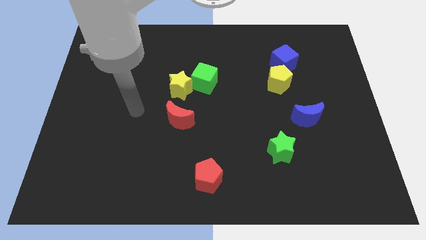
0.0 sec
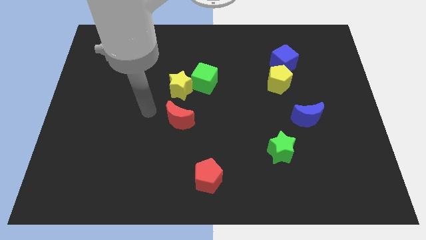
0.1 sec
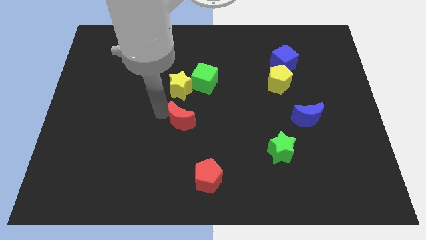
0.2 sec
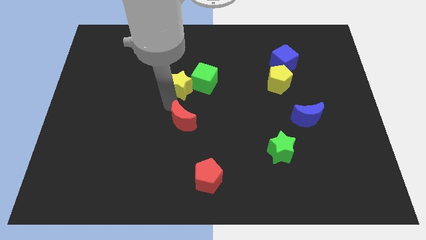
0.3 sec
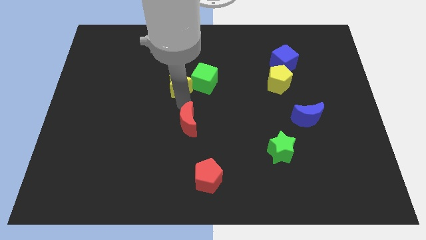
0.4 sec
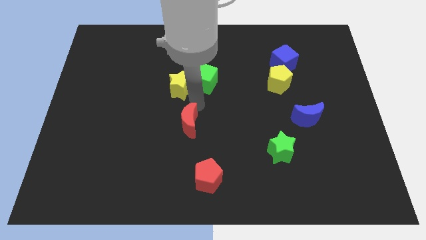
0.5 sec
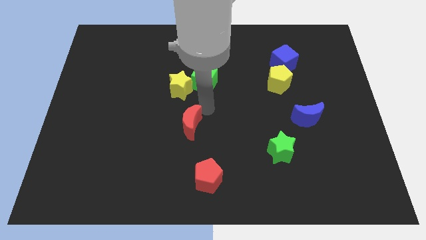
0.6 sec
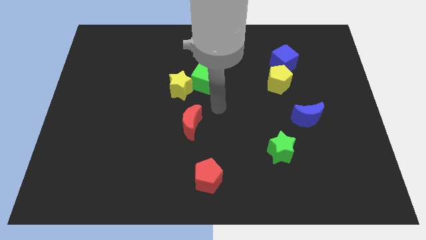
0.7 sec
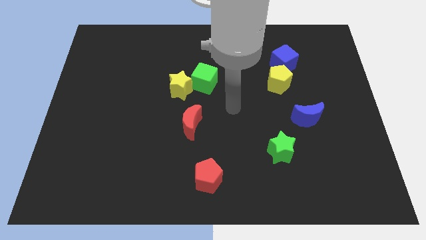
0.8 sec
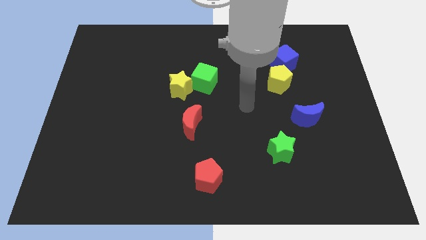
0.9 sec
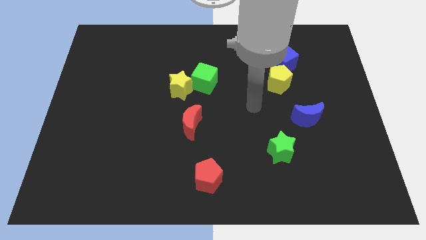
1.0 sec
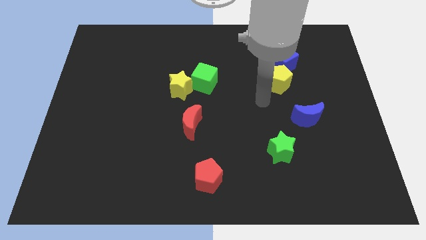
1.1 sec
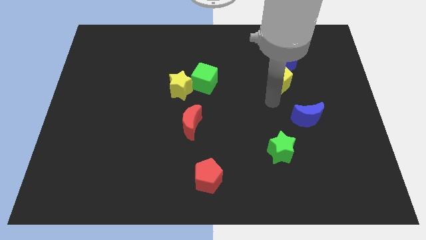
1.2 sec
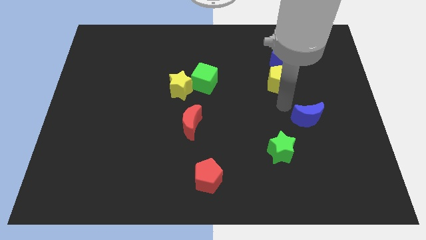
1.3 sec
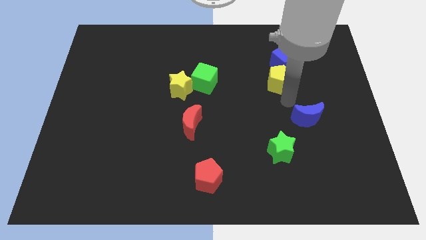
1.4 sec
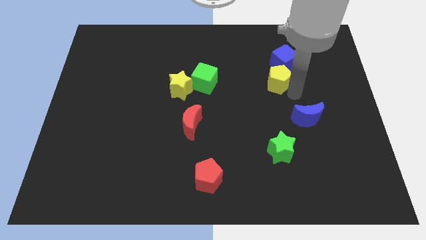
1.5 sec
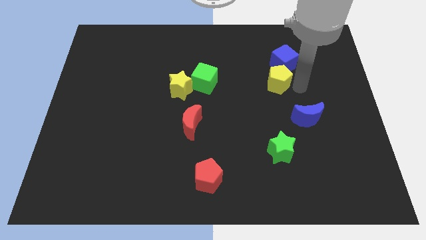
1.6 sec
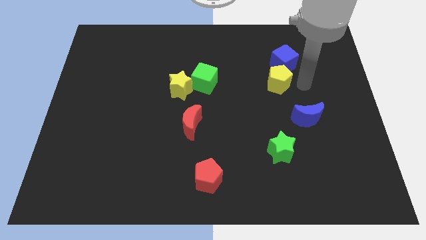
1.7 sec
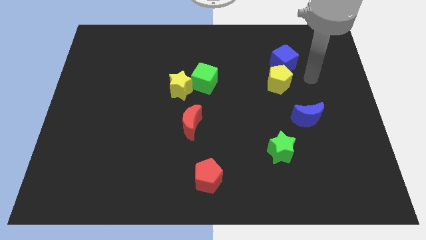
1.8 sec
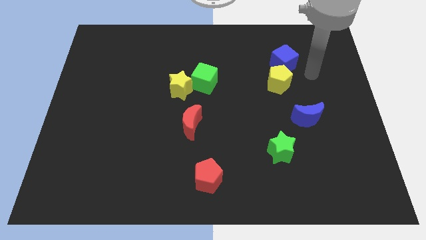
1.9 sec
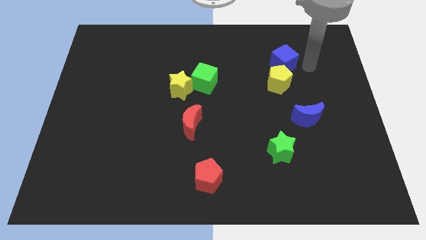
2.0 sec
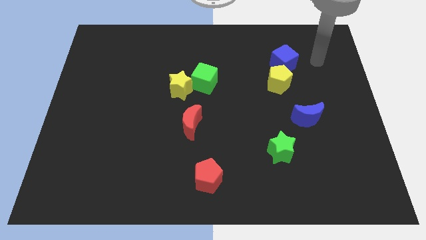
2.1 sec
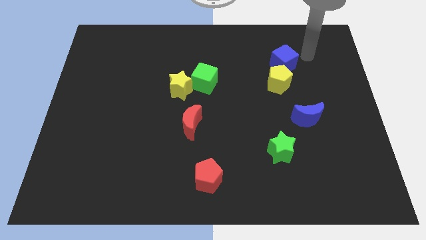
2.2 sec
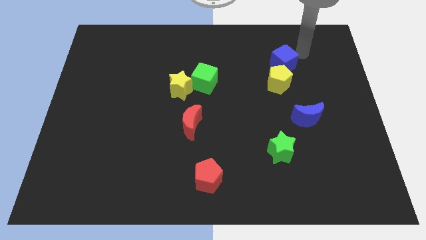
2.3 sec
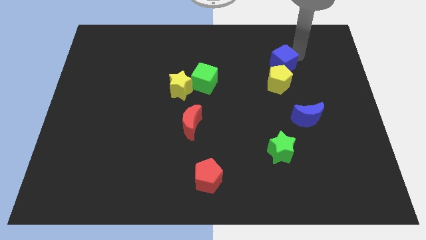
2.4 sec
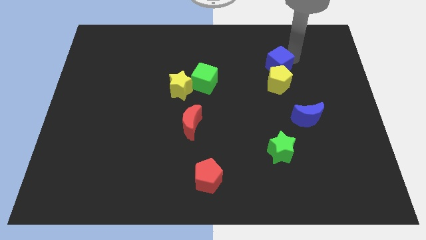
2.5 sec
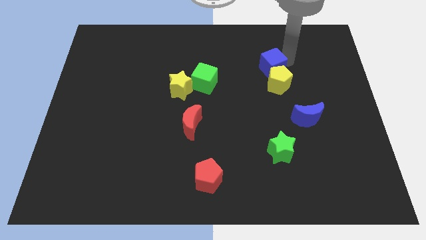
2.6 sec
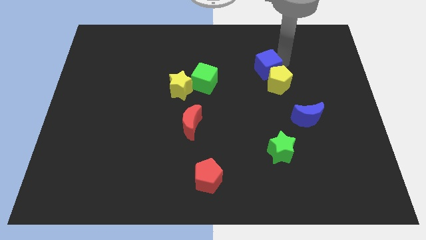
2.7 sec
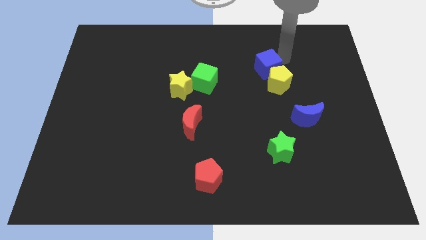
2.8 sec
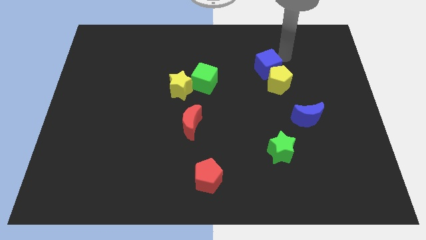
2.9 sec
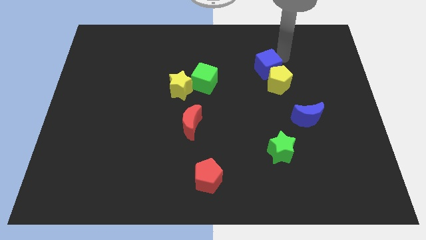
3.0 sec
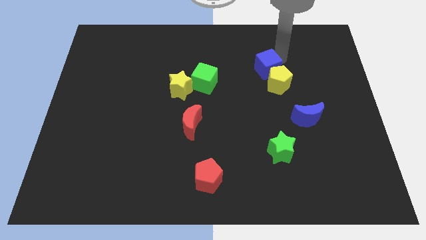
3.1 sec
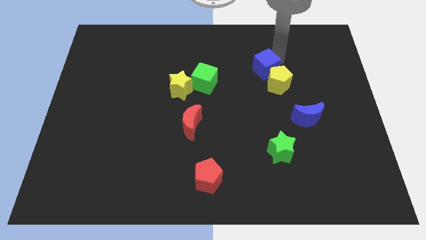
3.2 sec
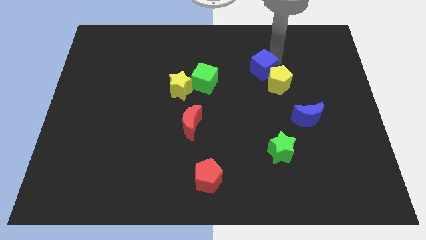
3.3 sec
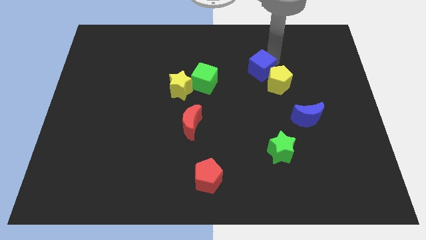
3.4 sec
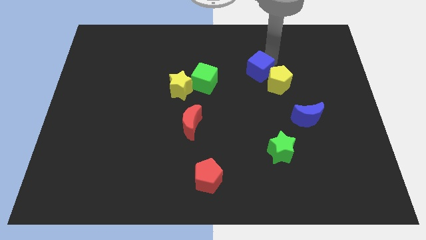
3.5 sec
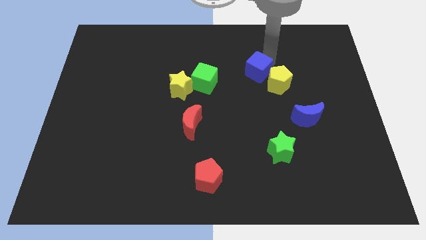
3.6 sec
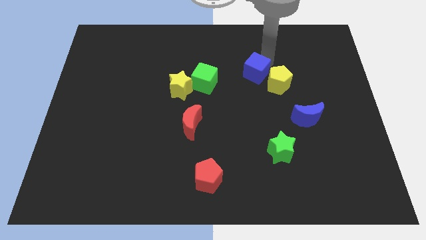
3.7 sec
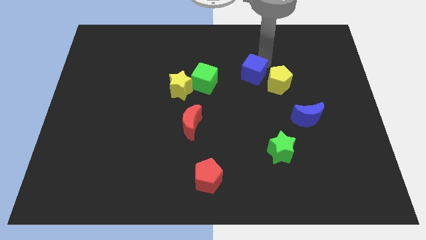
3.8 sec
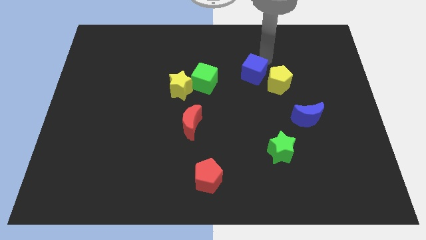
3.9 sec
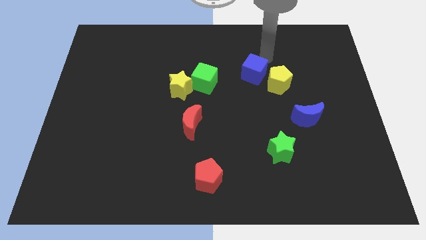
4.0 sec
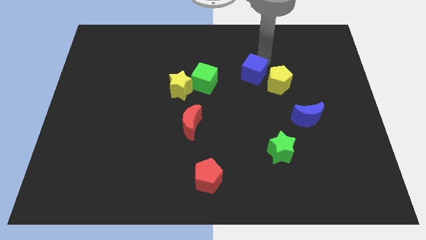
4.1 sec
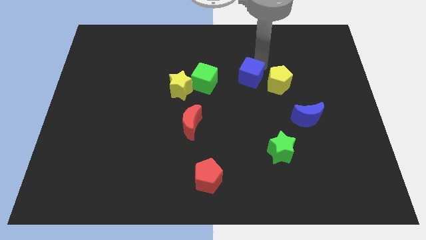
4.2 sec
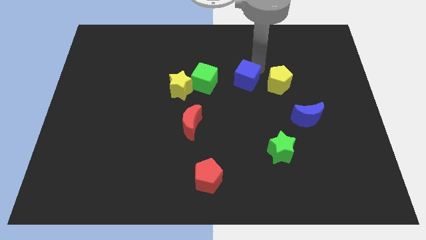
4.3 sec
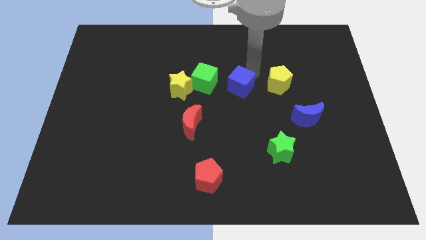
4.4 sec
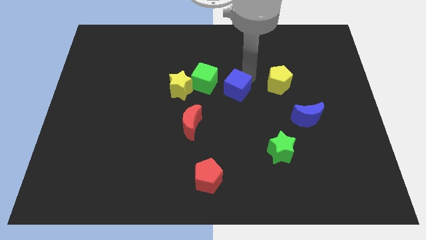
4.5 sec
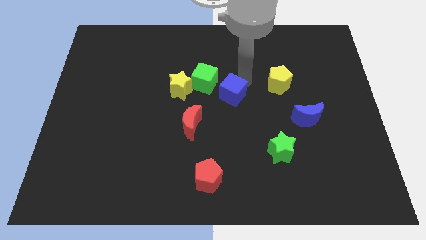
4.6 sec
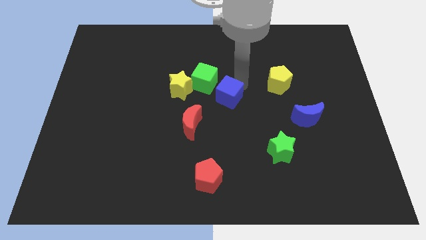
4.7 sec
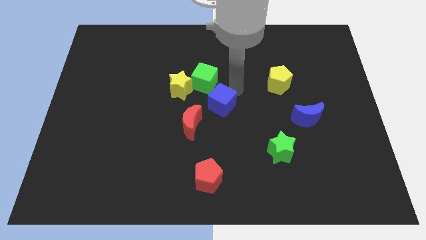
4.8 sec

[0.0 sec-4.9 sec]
push the blue cube down and to the left

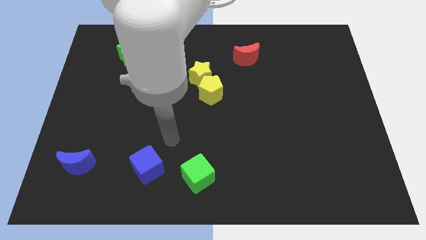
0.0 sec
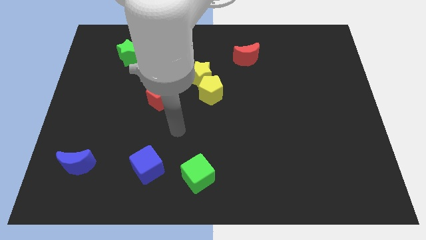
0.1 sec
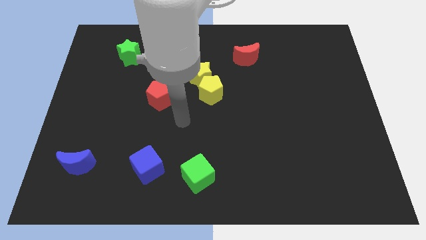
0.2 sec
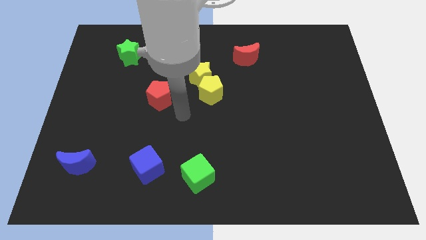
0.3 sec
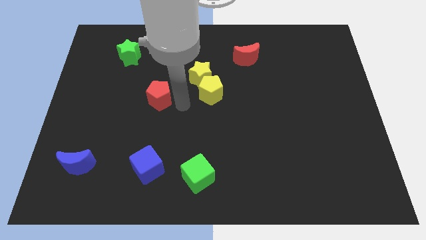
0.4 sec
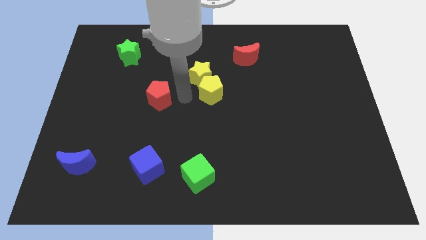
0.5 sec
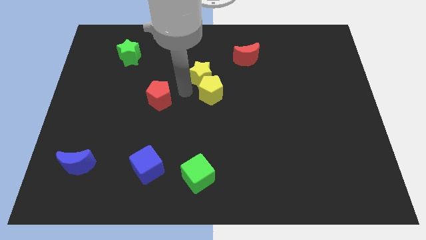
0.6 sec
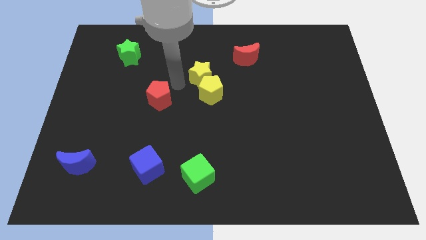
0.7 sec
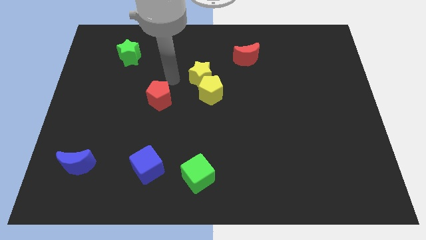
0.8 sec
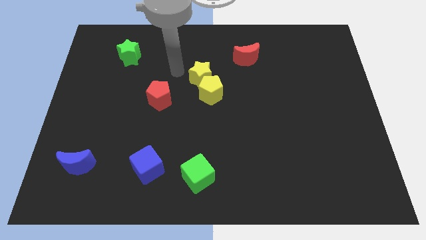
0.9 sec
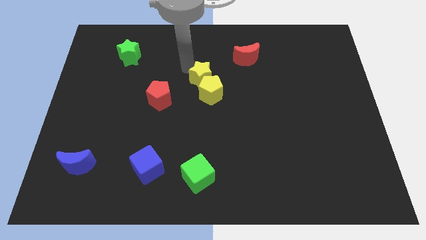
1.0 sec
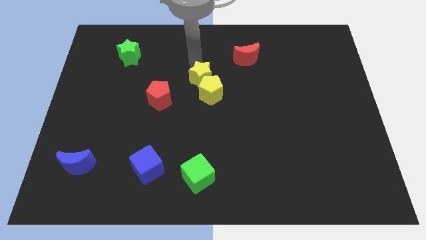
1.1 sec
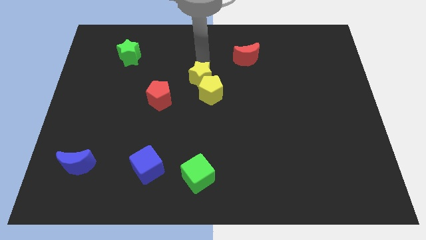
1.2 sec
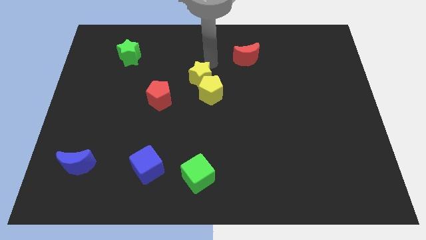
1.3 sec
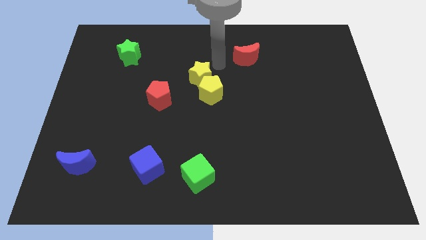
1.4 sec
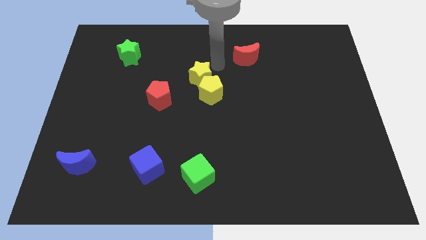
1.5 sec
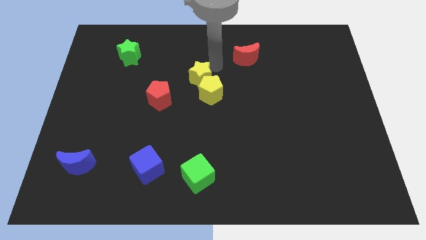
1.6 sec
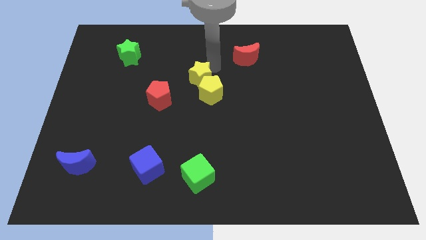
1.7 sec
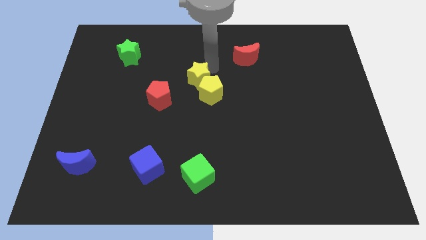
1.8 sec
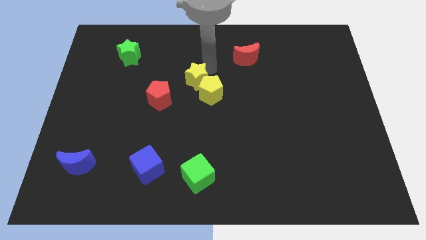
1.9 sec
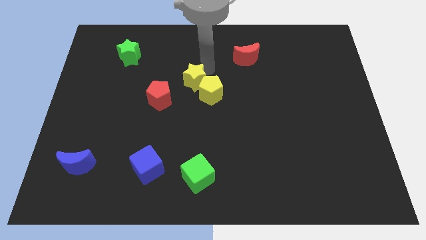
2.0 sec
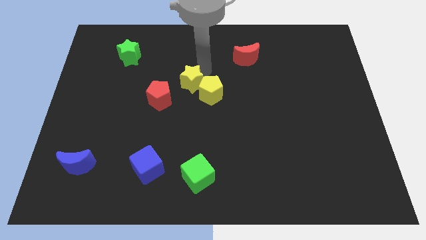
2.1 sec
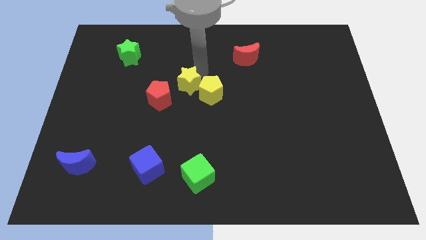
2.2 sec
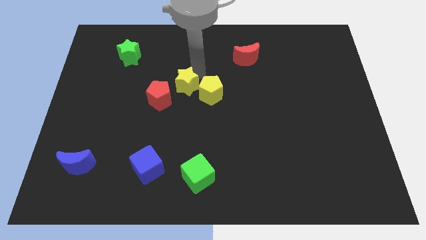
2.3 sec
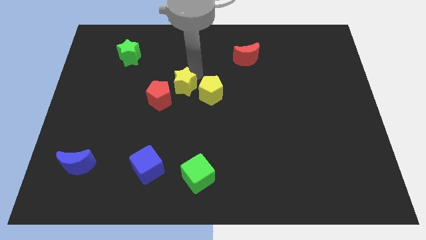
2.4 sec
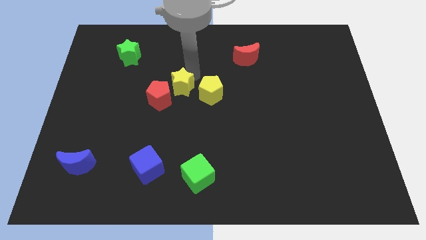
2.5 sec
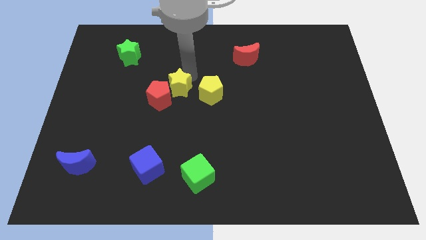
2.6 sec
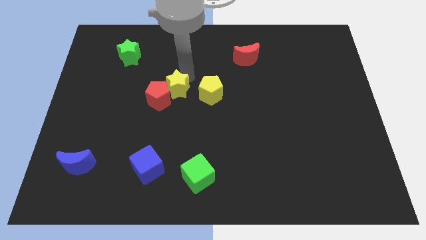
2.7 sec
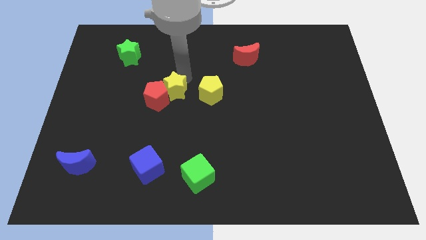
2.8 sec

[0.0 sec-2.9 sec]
slide the yellow star a little bit diagonally down and to the left

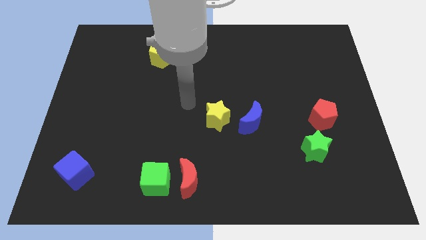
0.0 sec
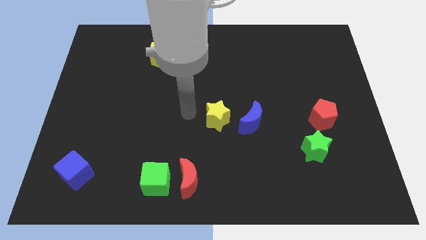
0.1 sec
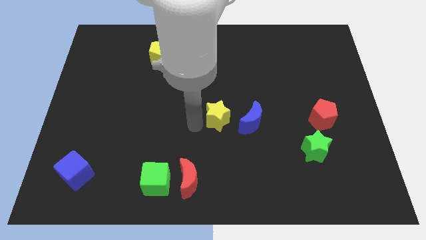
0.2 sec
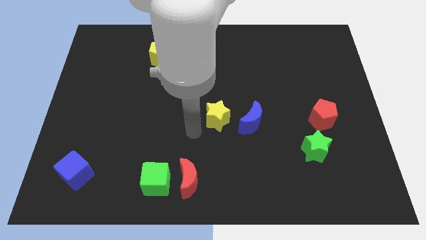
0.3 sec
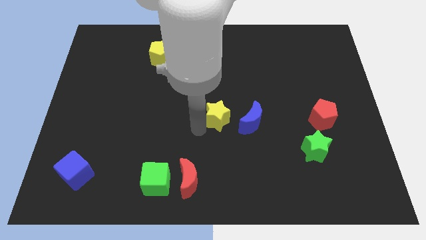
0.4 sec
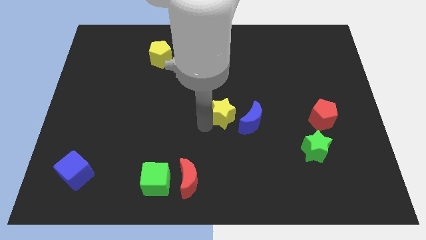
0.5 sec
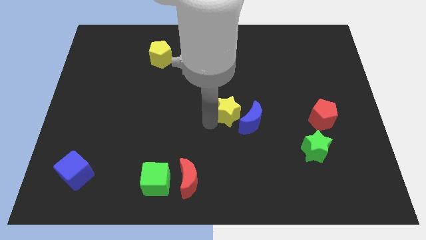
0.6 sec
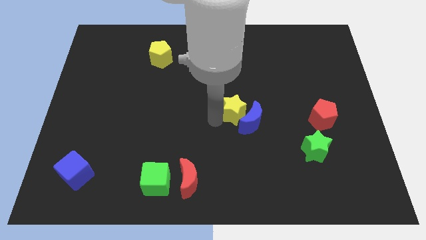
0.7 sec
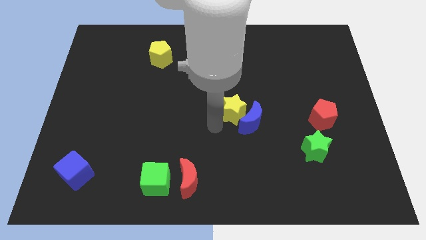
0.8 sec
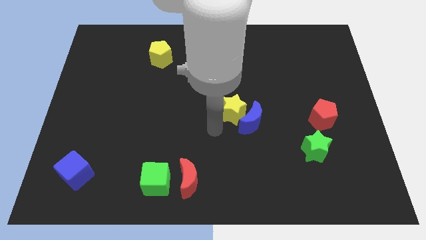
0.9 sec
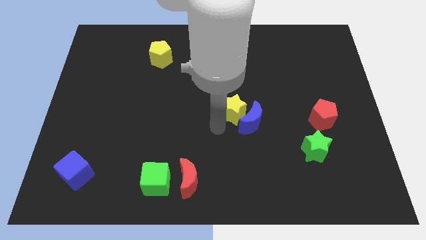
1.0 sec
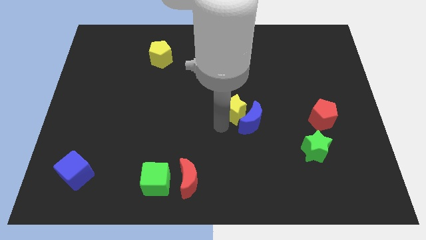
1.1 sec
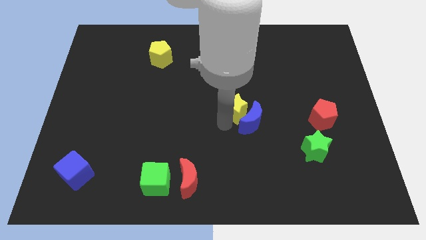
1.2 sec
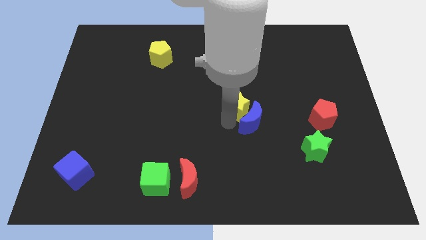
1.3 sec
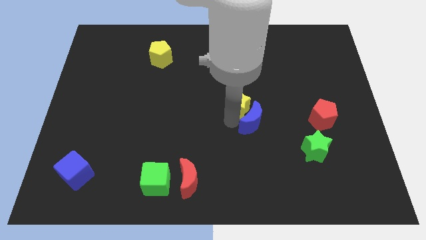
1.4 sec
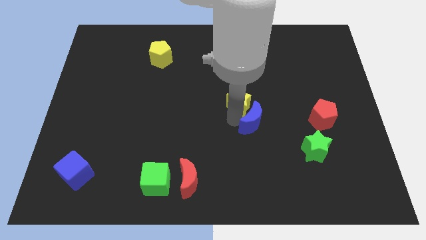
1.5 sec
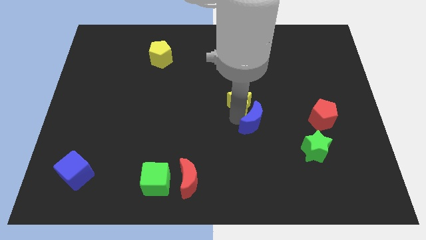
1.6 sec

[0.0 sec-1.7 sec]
move the yellow star upwards and to the right diagonally a little
